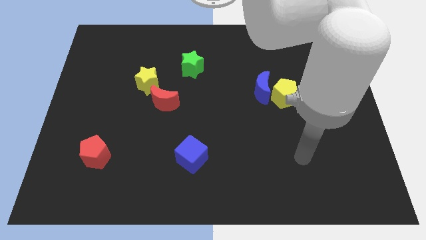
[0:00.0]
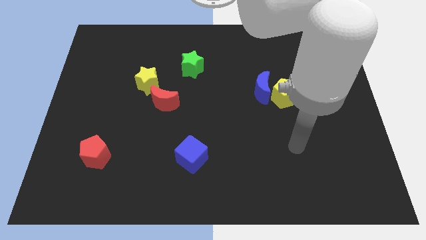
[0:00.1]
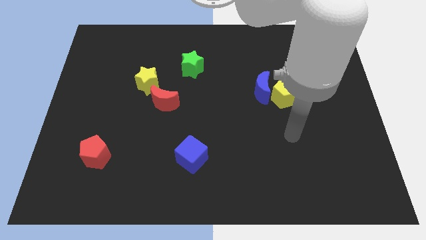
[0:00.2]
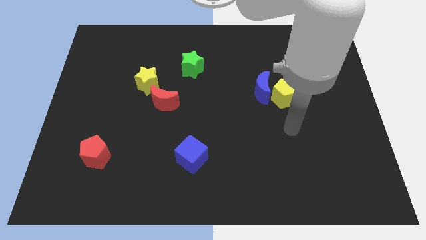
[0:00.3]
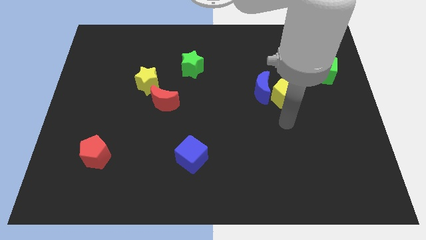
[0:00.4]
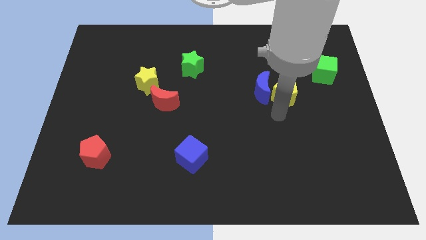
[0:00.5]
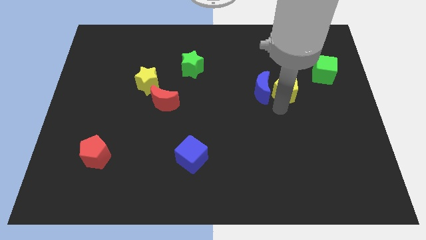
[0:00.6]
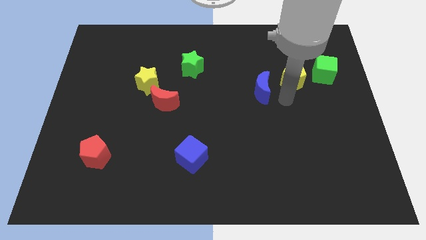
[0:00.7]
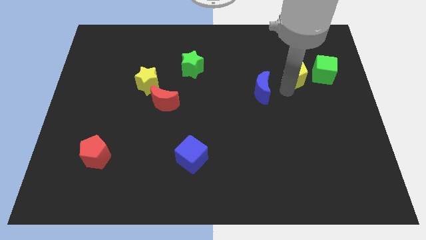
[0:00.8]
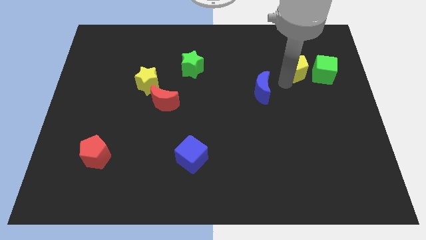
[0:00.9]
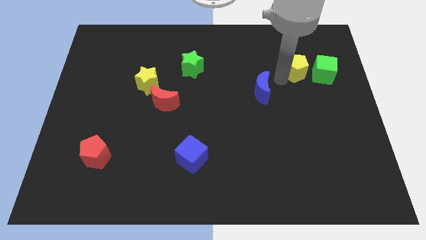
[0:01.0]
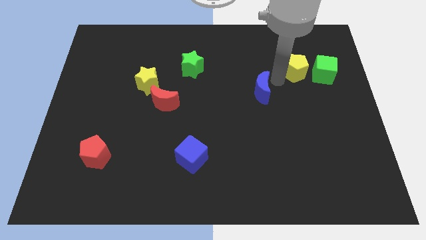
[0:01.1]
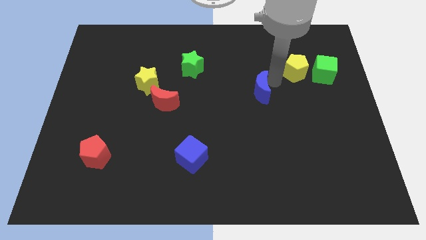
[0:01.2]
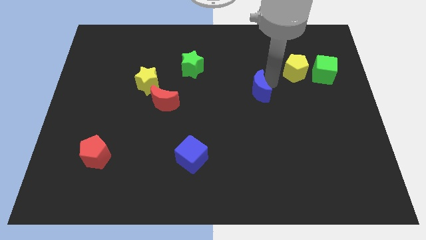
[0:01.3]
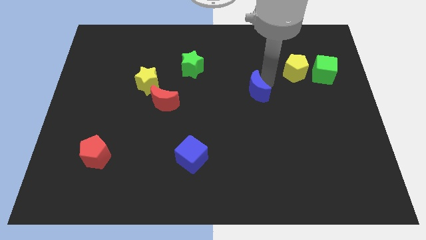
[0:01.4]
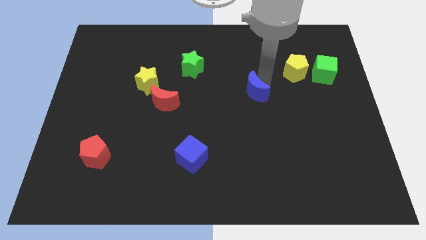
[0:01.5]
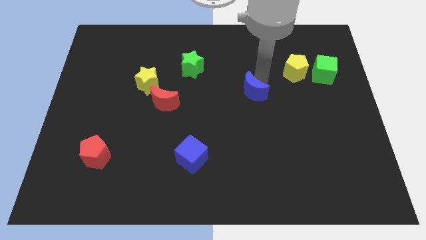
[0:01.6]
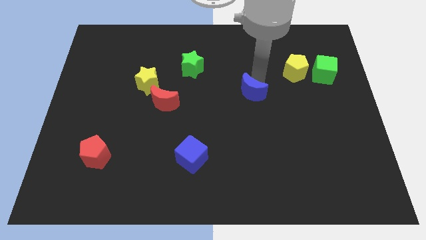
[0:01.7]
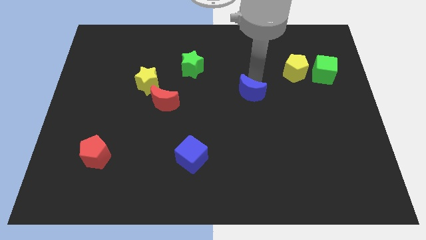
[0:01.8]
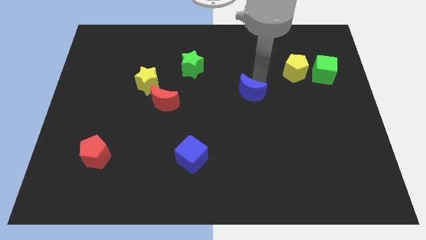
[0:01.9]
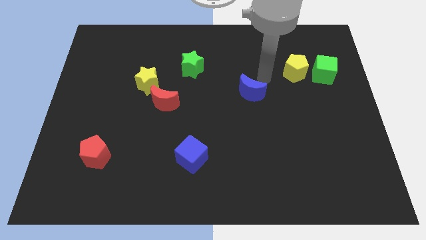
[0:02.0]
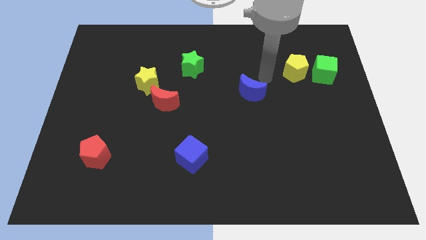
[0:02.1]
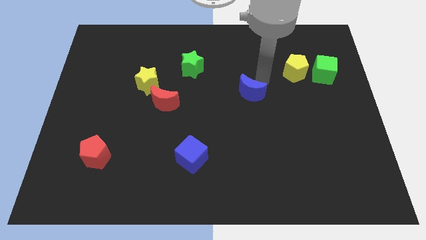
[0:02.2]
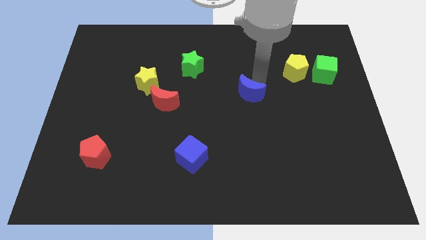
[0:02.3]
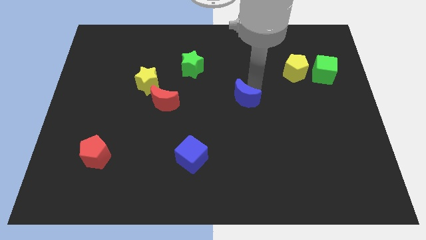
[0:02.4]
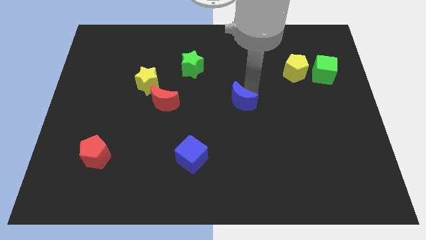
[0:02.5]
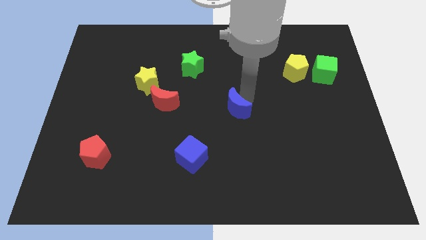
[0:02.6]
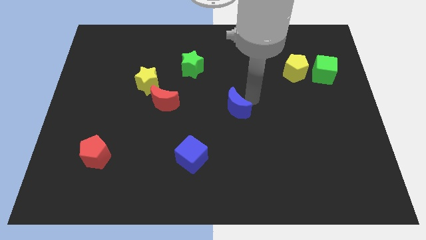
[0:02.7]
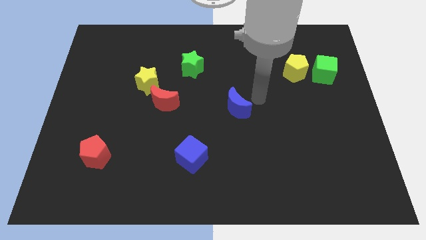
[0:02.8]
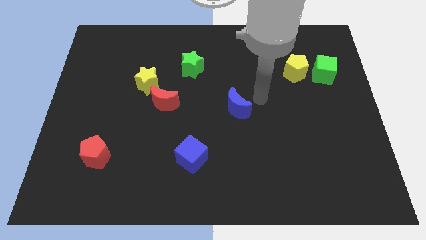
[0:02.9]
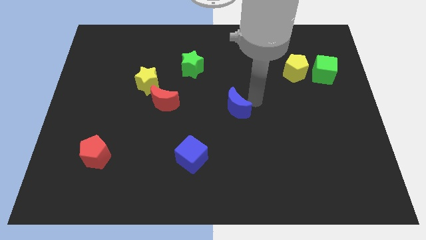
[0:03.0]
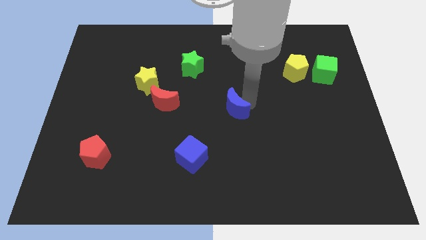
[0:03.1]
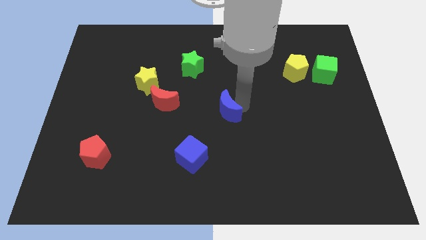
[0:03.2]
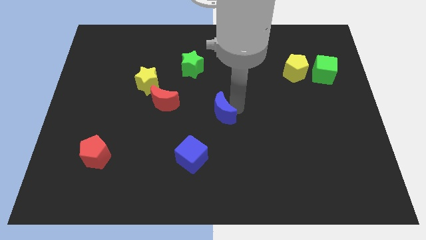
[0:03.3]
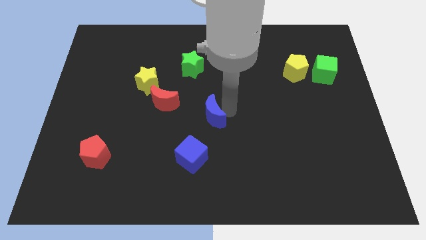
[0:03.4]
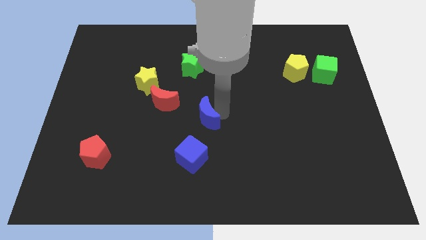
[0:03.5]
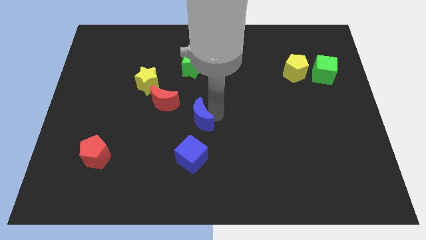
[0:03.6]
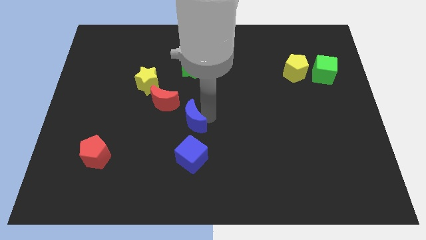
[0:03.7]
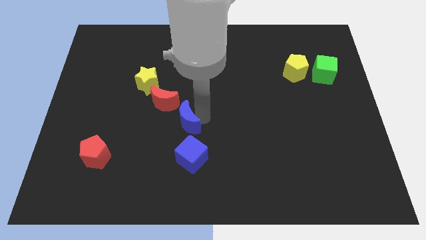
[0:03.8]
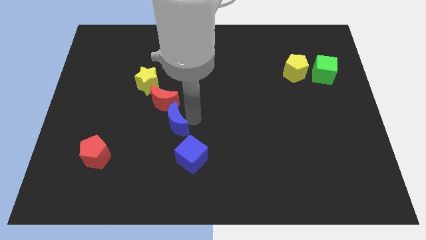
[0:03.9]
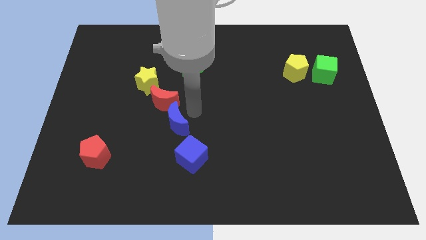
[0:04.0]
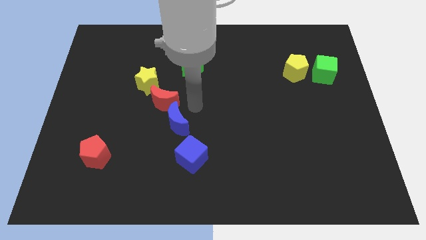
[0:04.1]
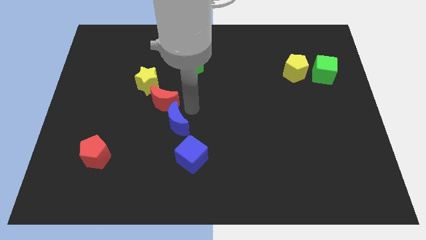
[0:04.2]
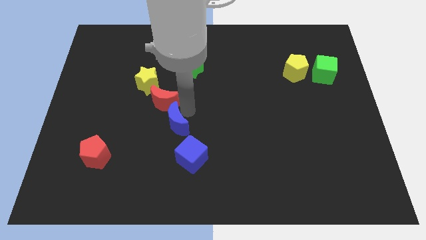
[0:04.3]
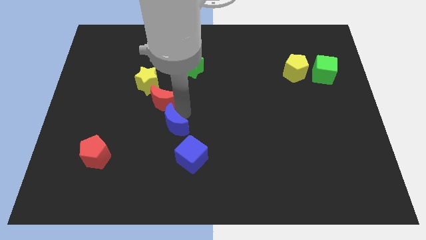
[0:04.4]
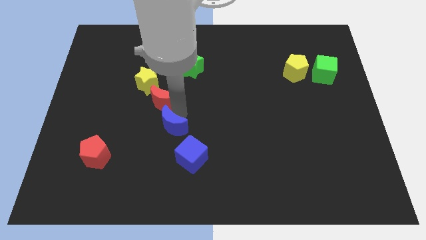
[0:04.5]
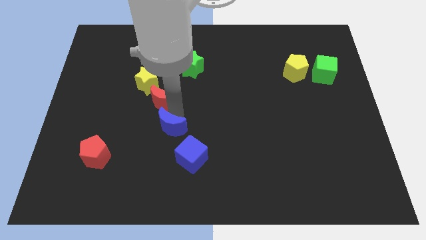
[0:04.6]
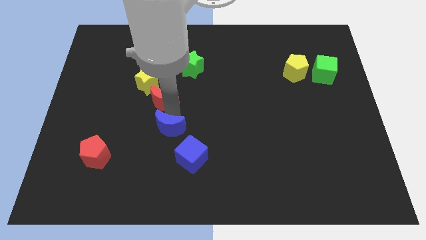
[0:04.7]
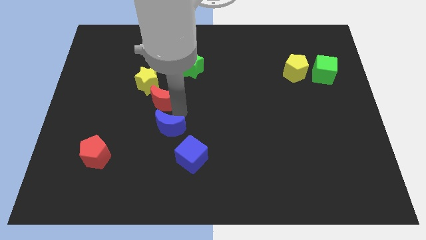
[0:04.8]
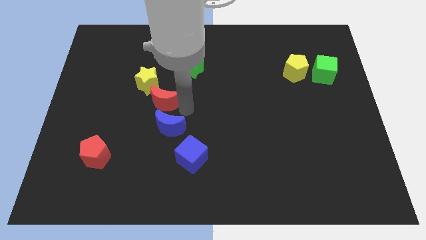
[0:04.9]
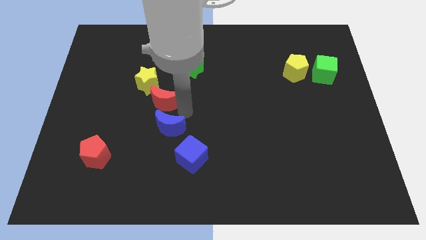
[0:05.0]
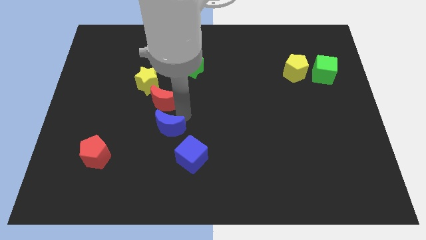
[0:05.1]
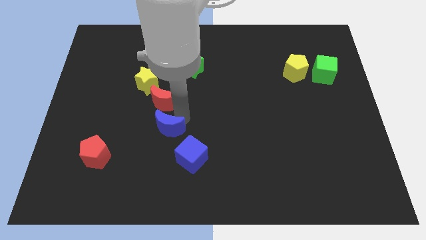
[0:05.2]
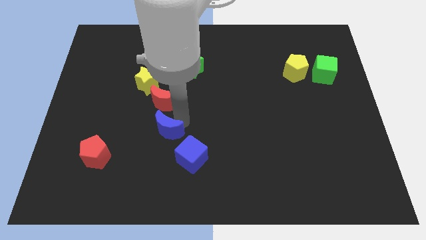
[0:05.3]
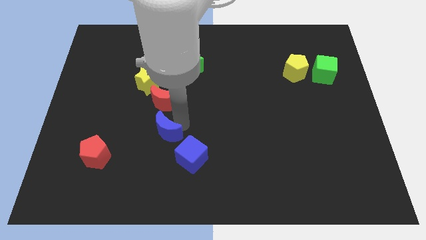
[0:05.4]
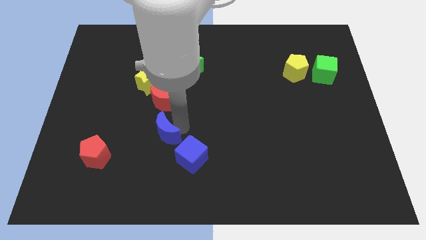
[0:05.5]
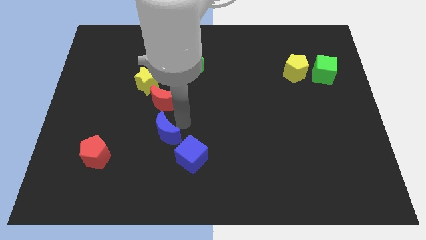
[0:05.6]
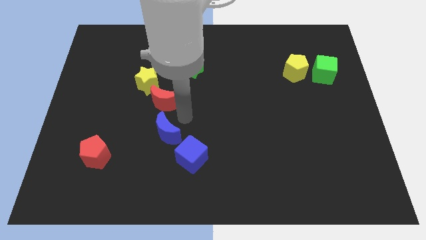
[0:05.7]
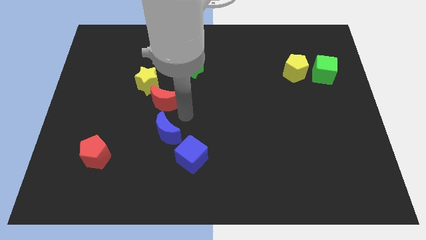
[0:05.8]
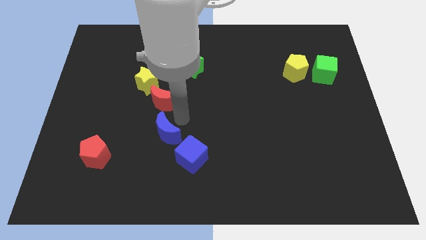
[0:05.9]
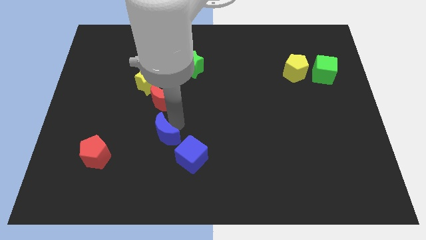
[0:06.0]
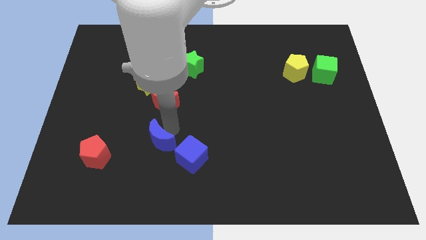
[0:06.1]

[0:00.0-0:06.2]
move the blue moon to the right of the red pentagon

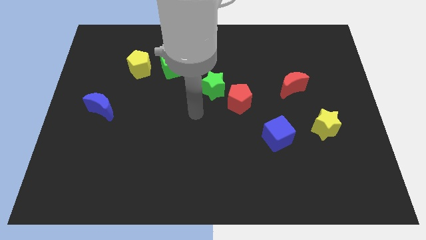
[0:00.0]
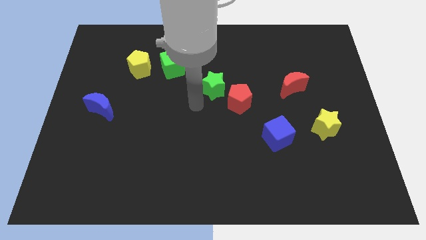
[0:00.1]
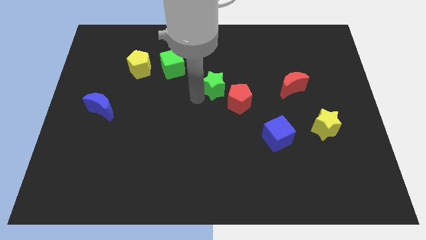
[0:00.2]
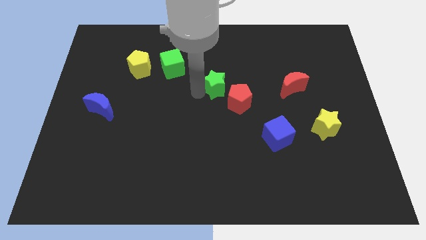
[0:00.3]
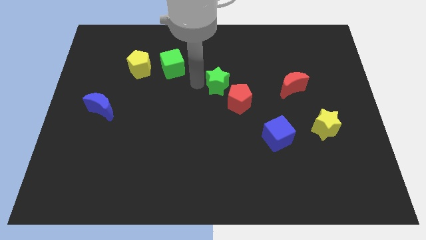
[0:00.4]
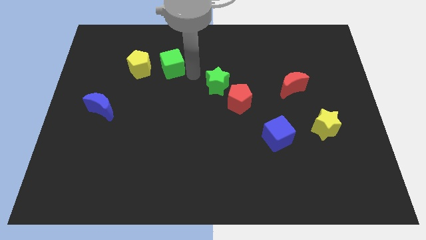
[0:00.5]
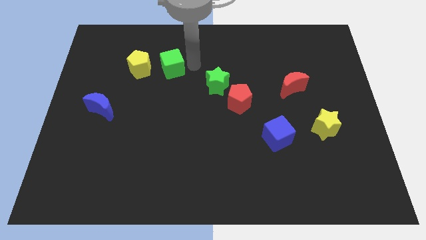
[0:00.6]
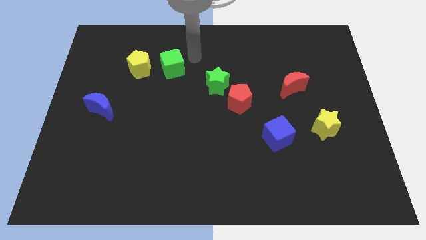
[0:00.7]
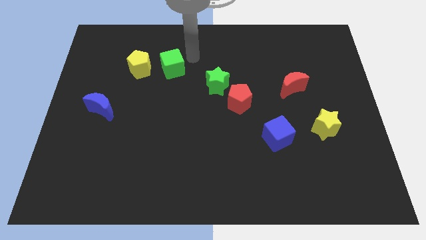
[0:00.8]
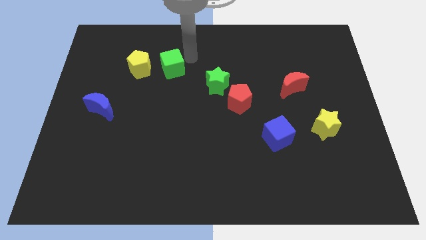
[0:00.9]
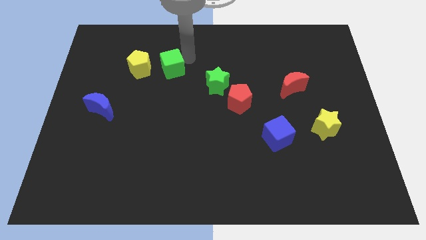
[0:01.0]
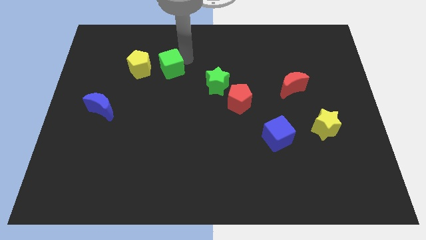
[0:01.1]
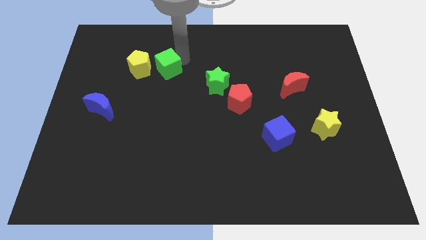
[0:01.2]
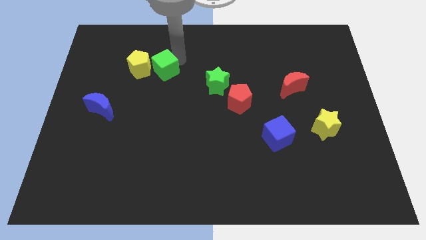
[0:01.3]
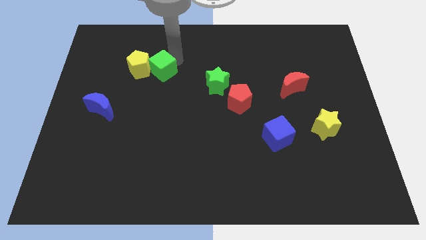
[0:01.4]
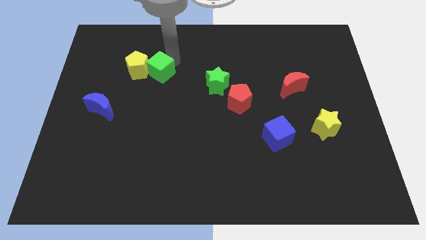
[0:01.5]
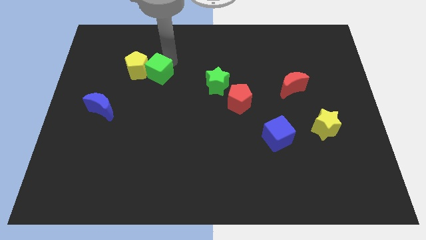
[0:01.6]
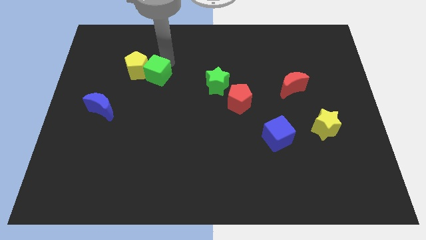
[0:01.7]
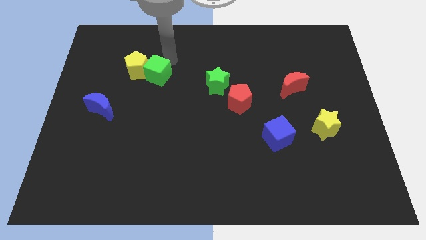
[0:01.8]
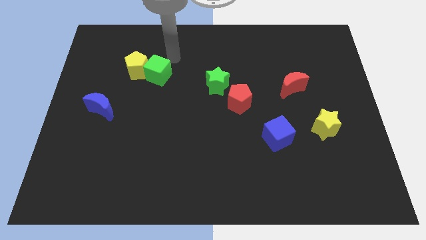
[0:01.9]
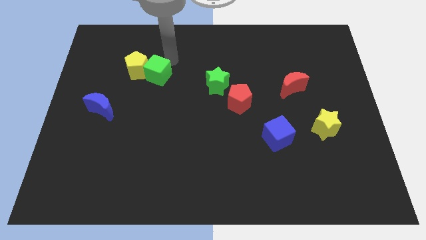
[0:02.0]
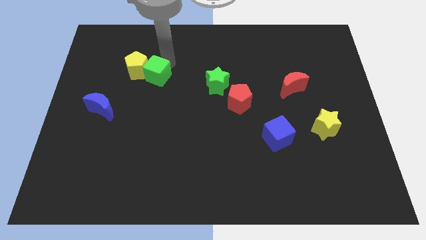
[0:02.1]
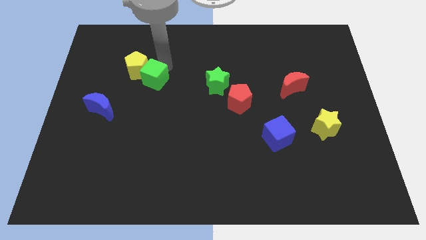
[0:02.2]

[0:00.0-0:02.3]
put the green cube to the bottom side of the yellow pentagon
